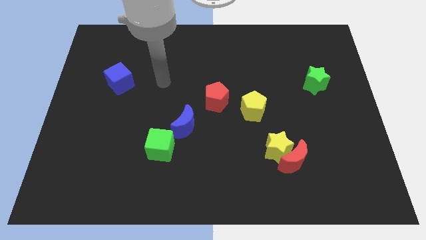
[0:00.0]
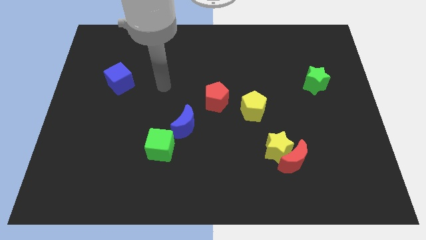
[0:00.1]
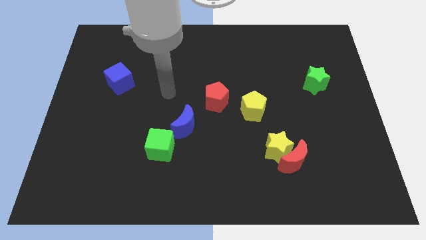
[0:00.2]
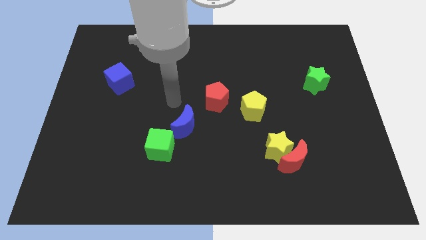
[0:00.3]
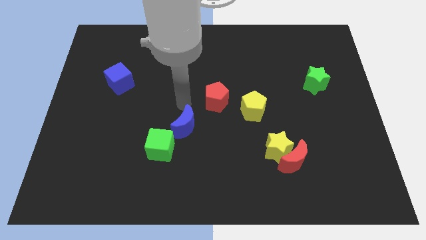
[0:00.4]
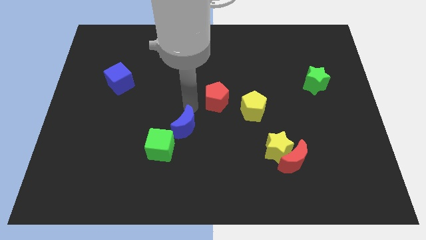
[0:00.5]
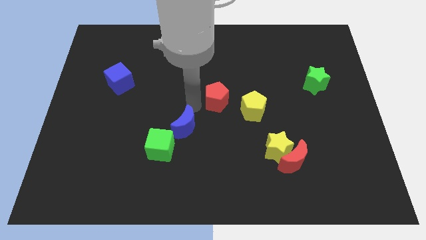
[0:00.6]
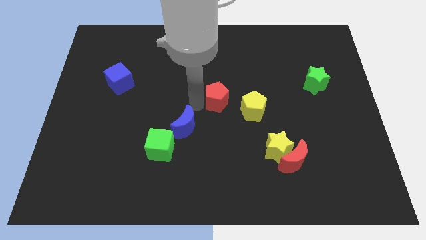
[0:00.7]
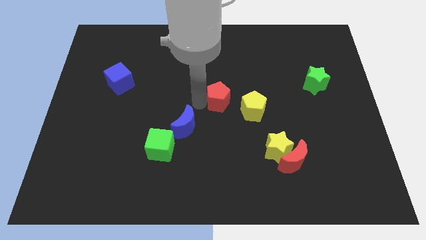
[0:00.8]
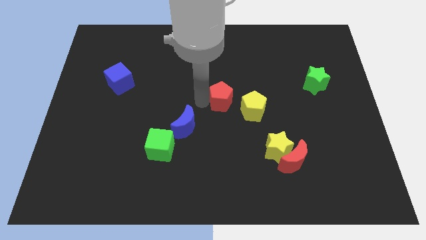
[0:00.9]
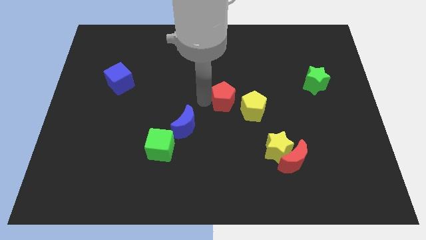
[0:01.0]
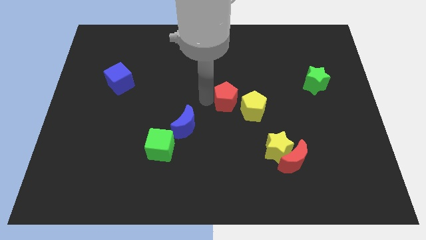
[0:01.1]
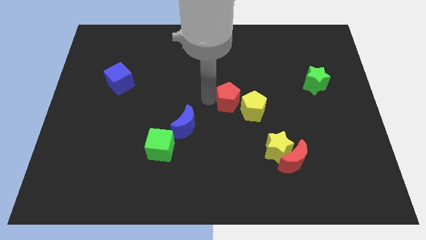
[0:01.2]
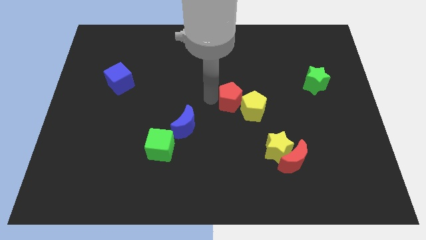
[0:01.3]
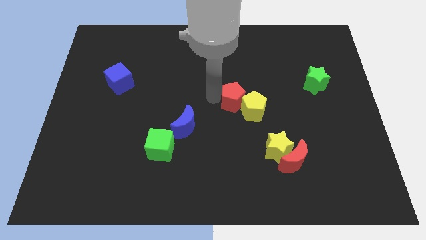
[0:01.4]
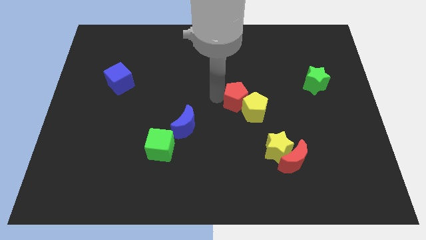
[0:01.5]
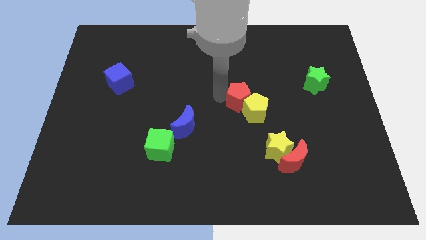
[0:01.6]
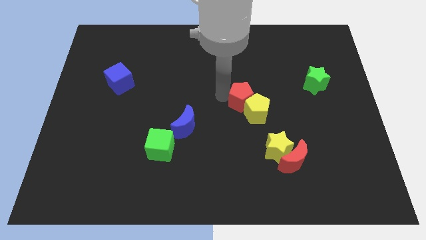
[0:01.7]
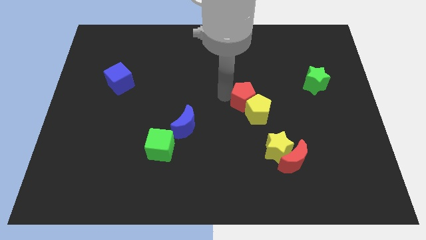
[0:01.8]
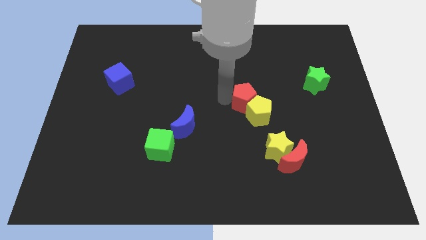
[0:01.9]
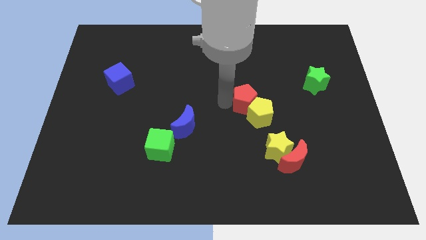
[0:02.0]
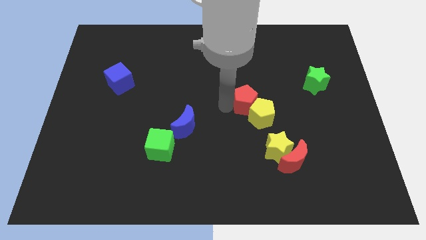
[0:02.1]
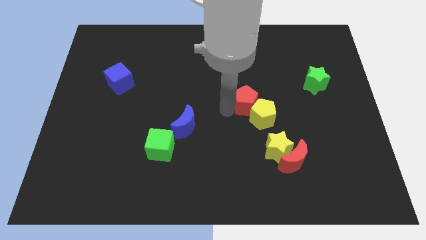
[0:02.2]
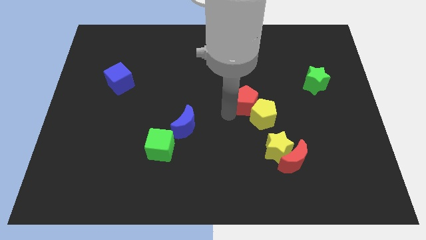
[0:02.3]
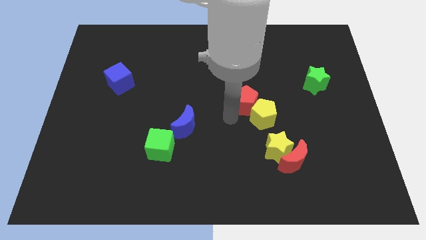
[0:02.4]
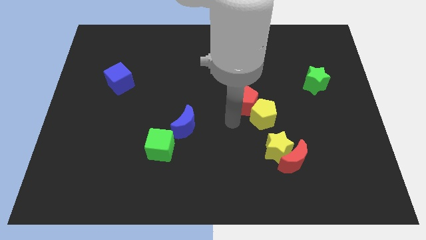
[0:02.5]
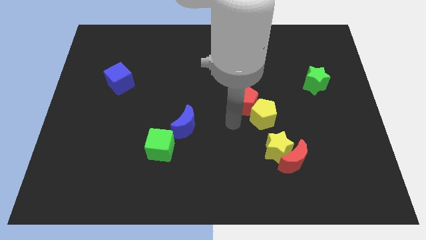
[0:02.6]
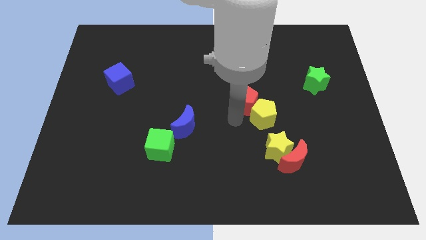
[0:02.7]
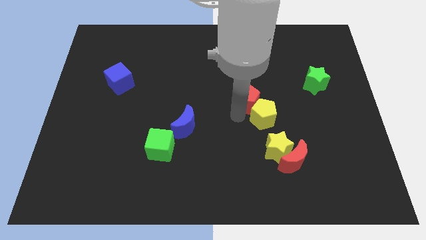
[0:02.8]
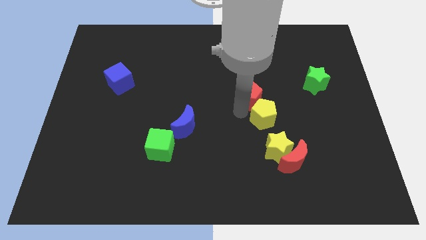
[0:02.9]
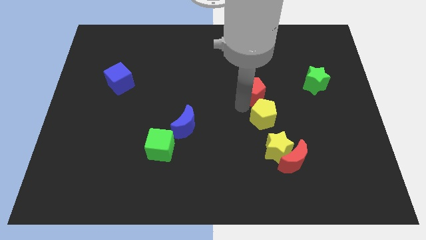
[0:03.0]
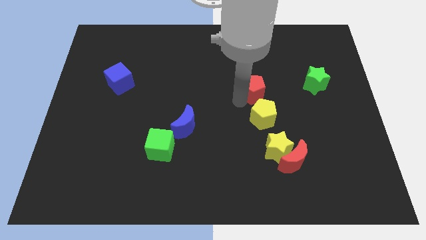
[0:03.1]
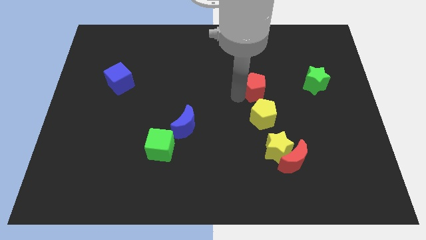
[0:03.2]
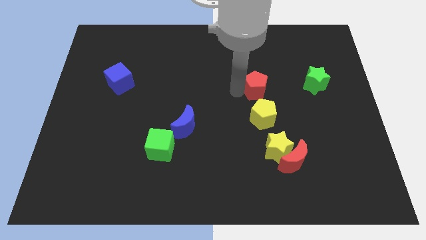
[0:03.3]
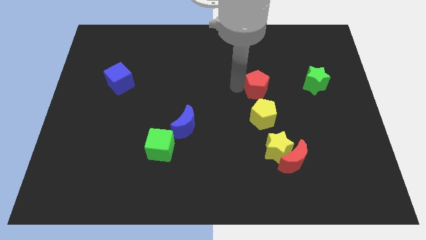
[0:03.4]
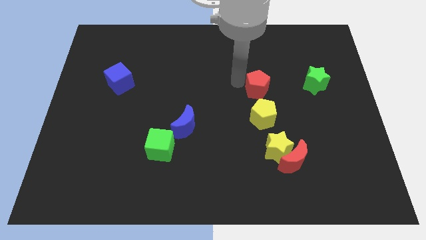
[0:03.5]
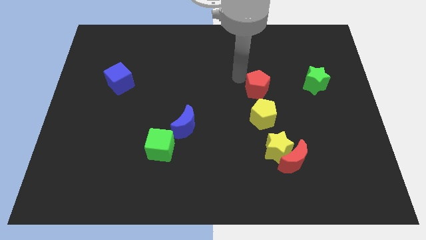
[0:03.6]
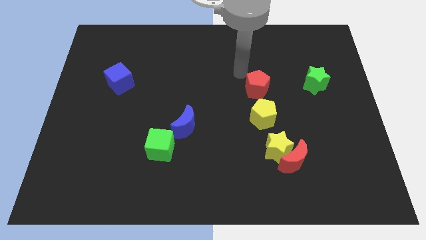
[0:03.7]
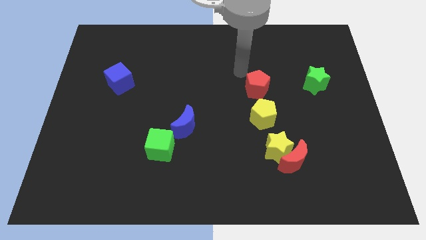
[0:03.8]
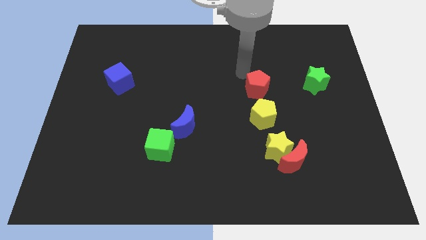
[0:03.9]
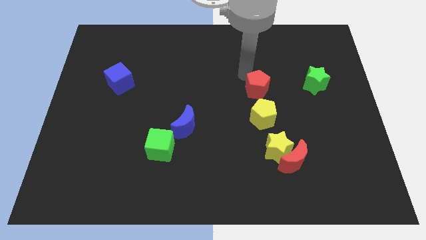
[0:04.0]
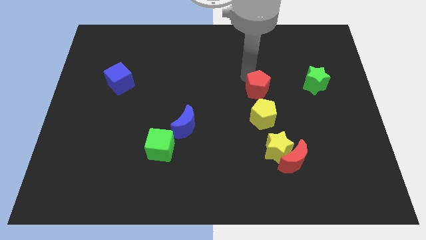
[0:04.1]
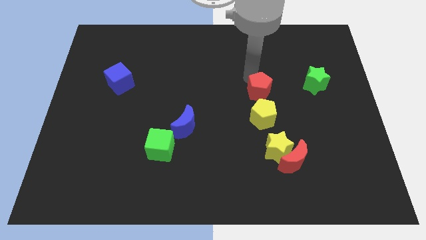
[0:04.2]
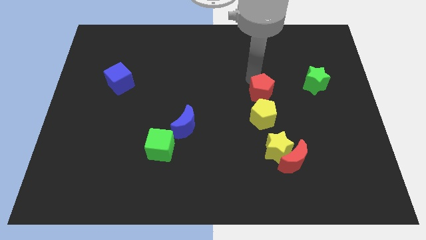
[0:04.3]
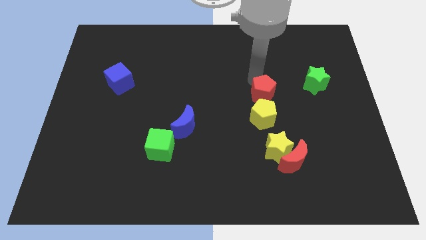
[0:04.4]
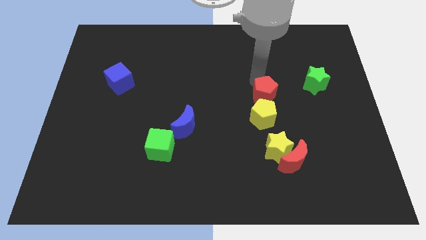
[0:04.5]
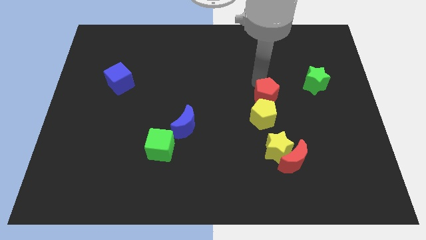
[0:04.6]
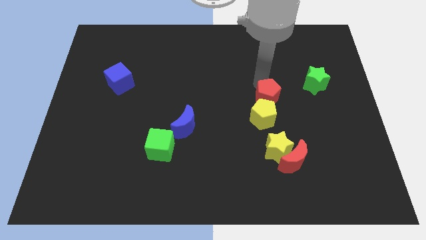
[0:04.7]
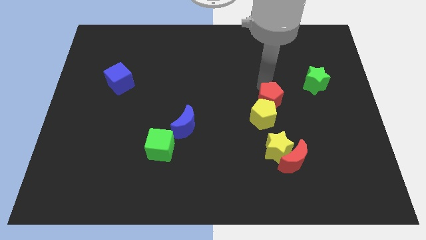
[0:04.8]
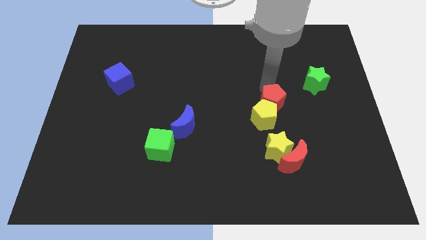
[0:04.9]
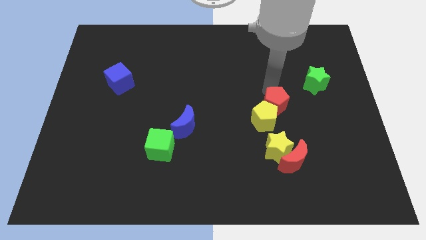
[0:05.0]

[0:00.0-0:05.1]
push the red pentagon just right of the yellow pentagon

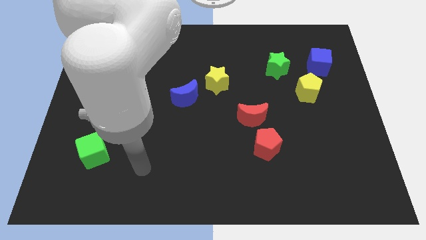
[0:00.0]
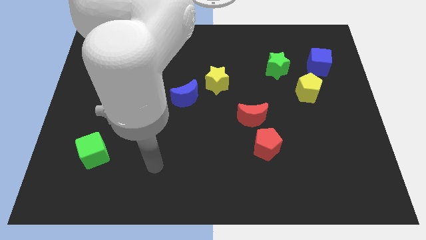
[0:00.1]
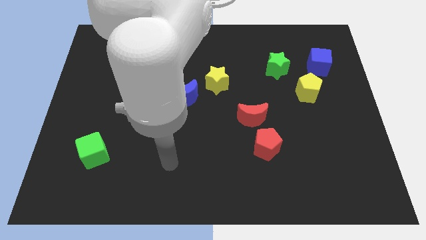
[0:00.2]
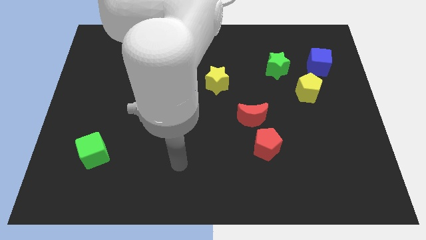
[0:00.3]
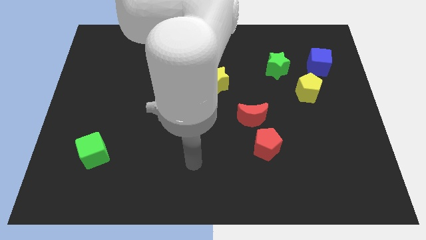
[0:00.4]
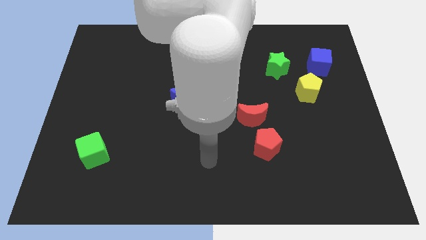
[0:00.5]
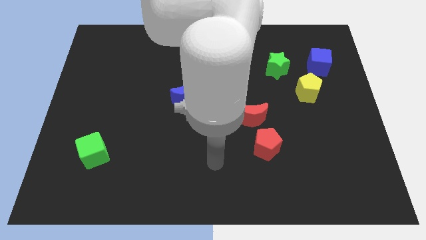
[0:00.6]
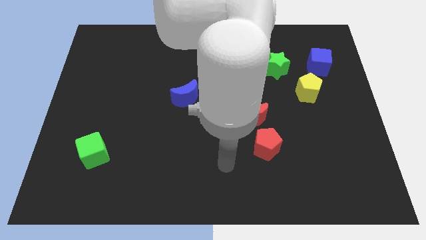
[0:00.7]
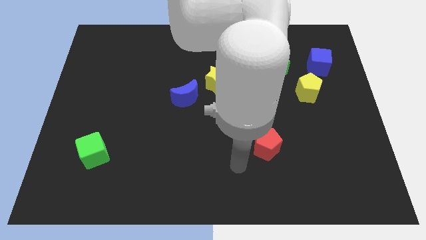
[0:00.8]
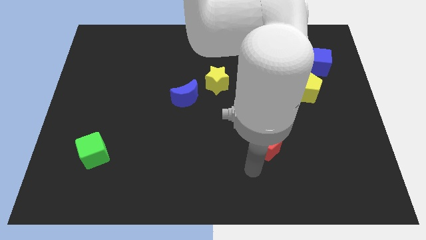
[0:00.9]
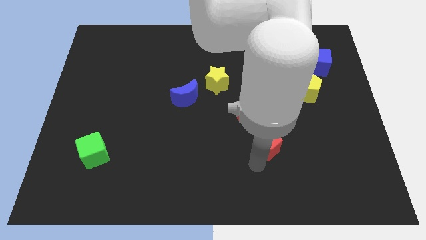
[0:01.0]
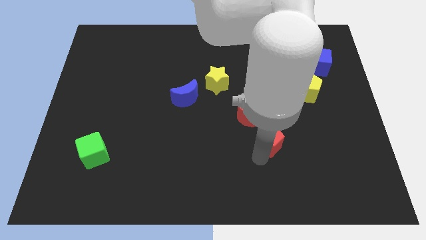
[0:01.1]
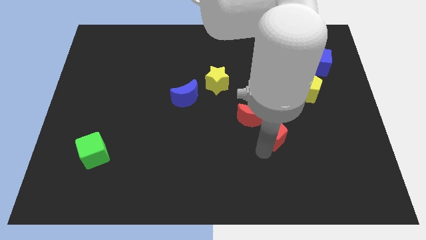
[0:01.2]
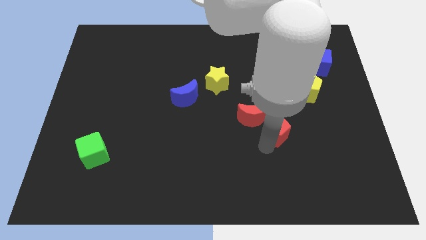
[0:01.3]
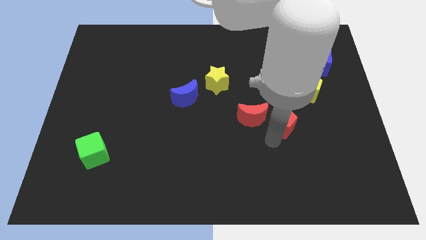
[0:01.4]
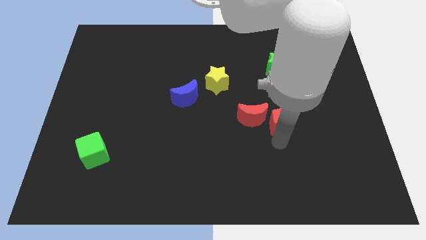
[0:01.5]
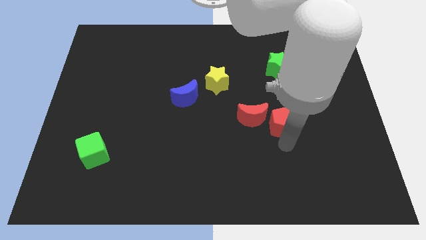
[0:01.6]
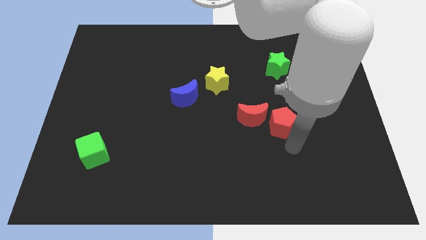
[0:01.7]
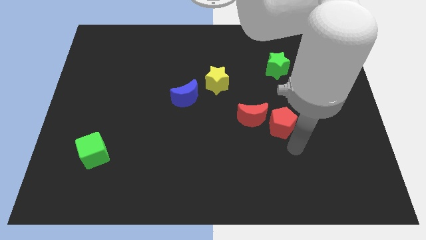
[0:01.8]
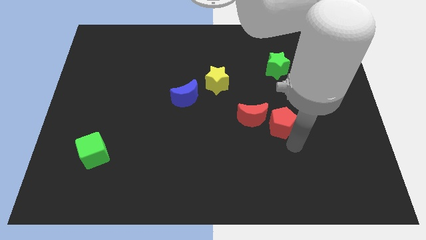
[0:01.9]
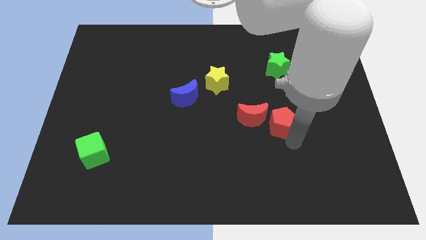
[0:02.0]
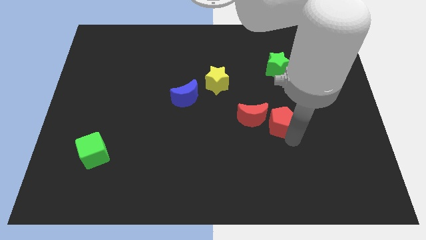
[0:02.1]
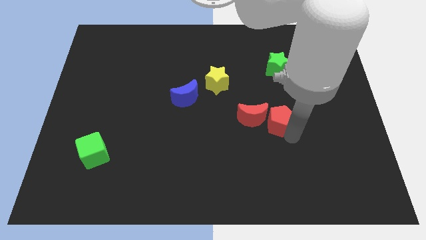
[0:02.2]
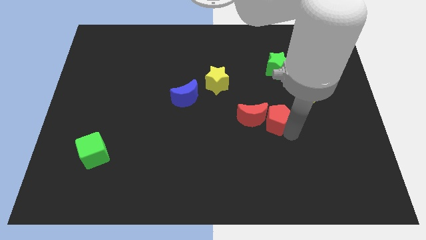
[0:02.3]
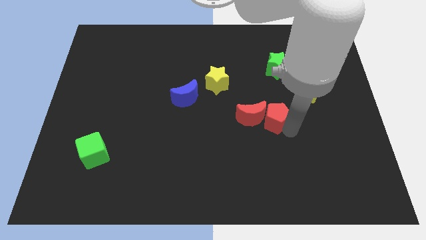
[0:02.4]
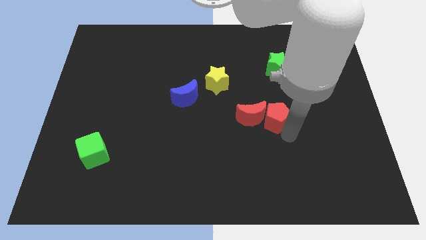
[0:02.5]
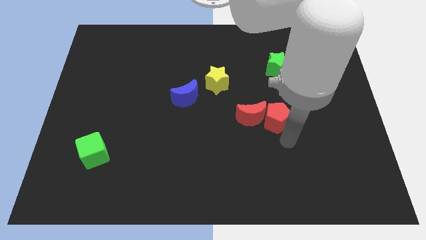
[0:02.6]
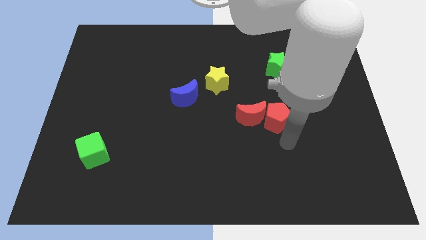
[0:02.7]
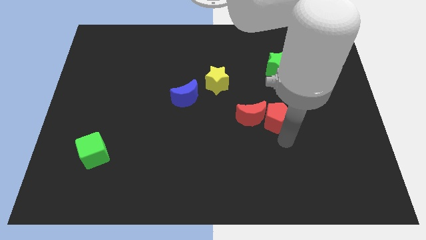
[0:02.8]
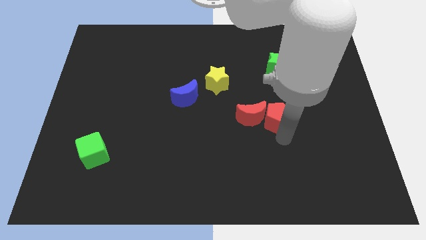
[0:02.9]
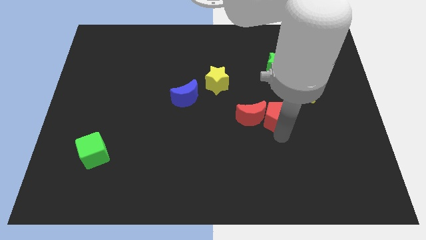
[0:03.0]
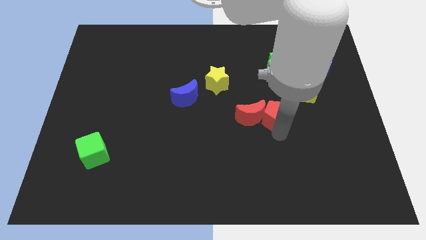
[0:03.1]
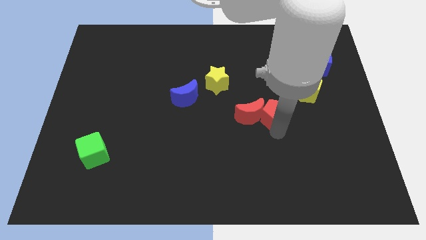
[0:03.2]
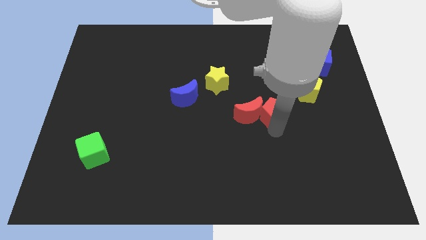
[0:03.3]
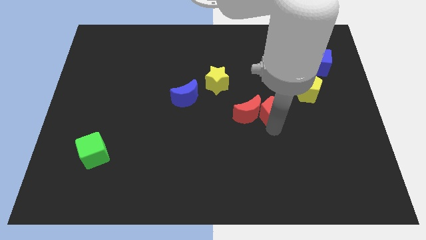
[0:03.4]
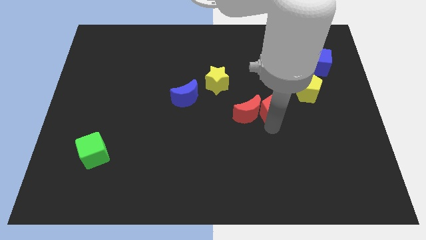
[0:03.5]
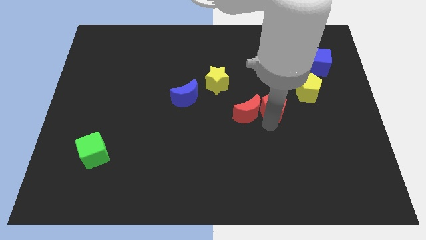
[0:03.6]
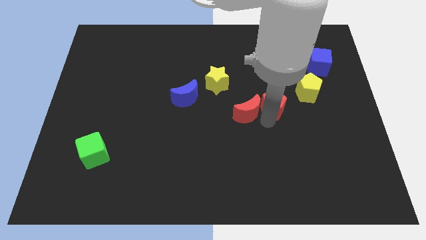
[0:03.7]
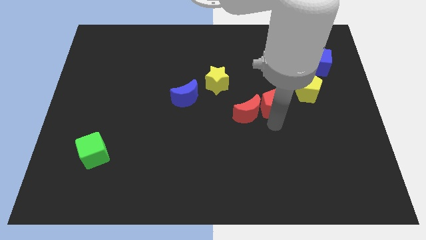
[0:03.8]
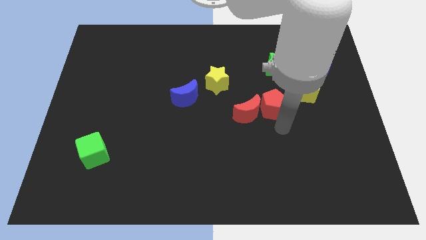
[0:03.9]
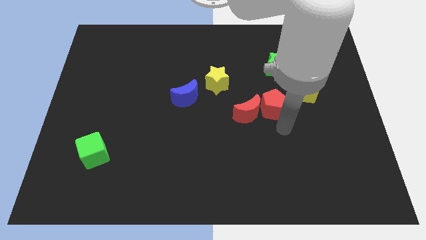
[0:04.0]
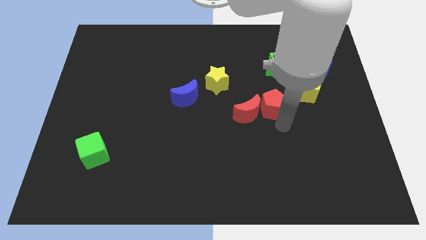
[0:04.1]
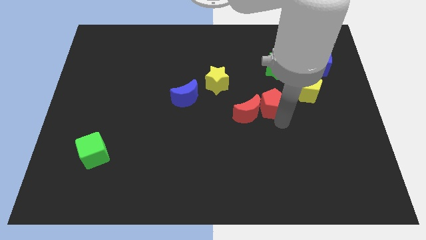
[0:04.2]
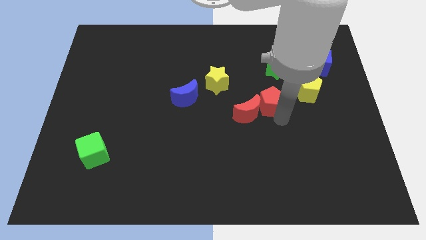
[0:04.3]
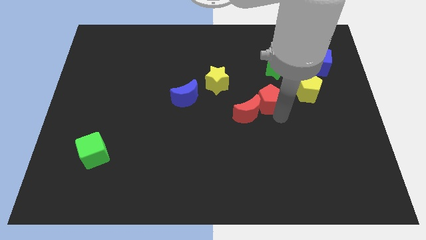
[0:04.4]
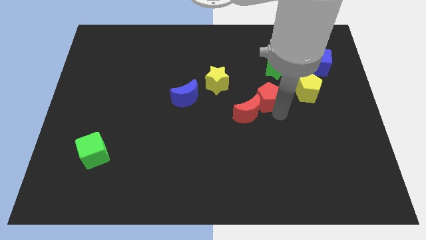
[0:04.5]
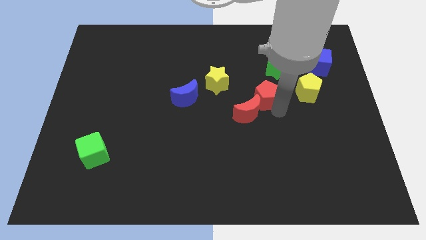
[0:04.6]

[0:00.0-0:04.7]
put the red pentagon diagonally down and to the left of the green star
